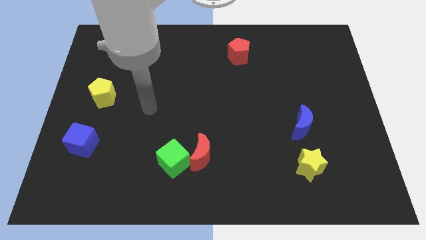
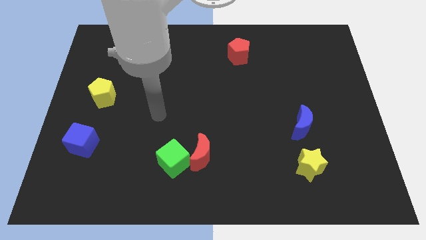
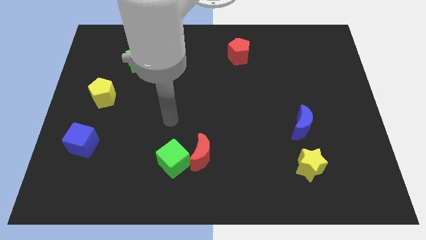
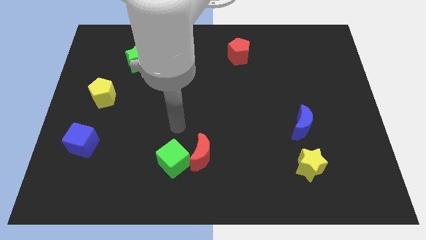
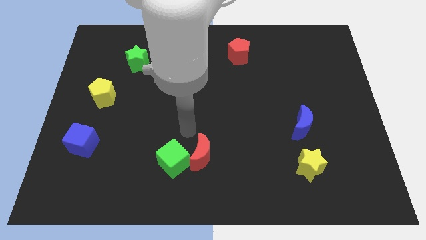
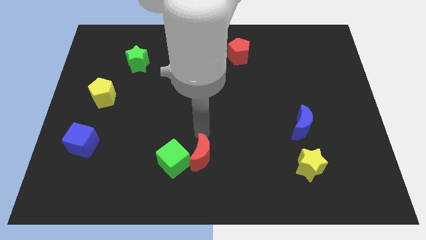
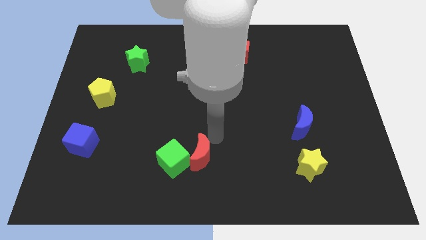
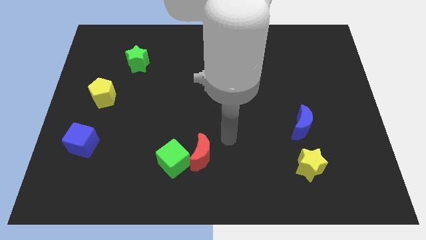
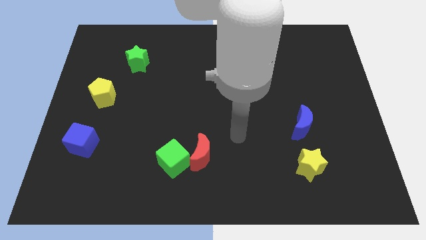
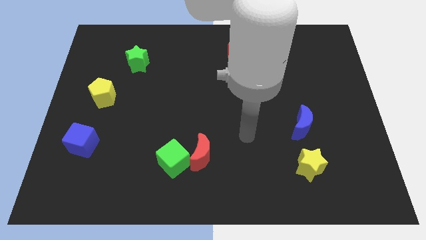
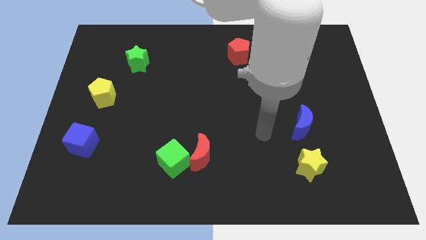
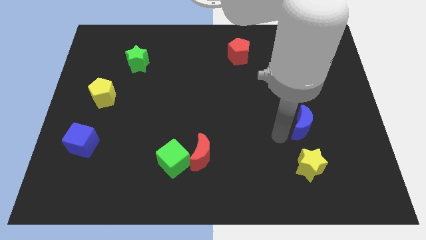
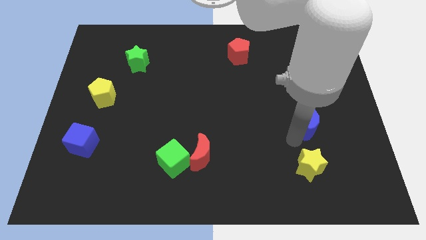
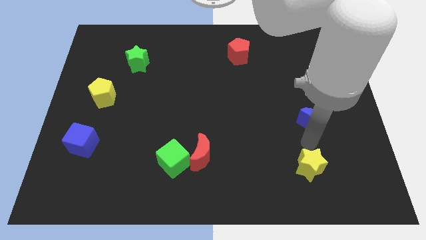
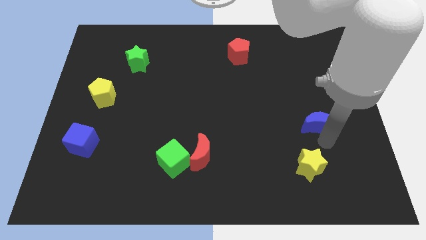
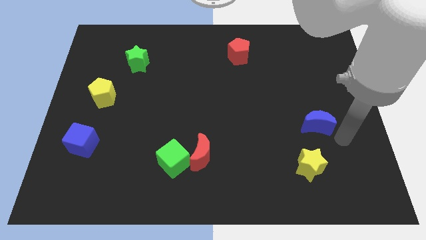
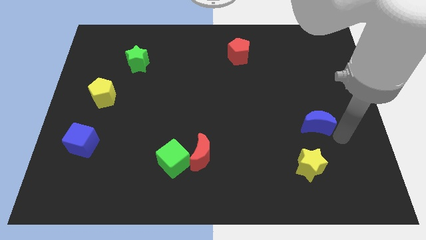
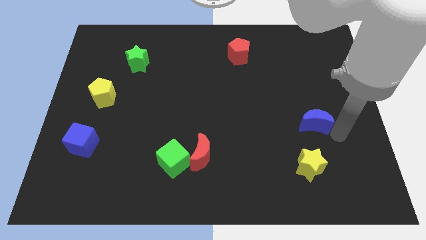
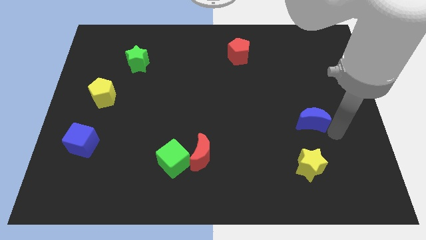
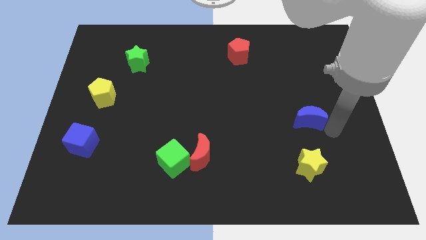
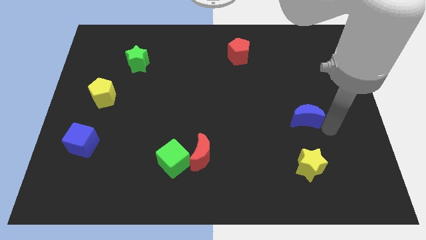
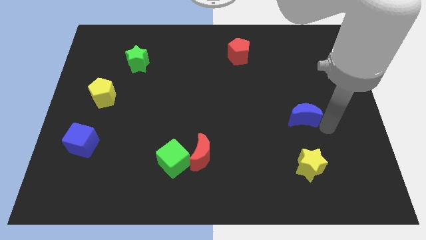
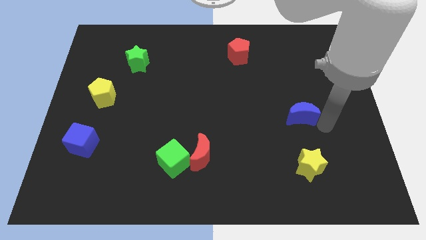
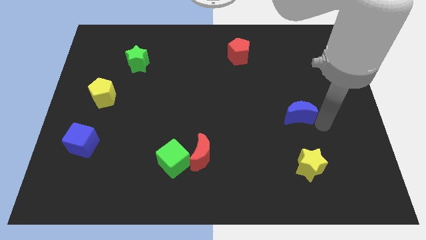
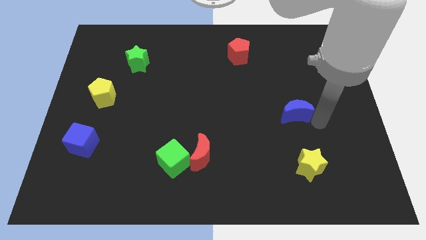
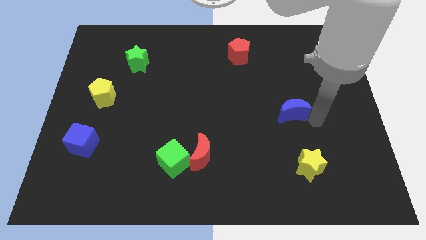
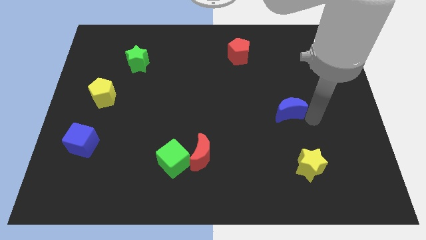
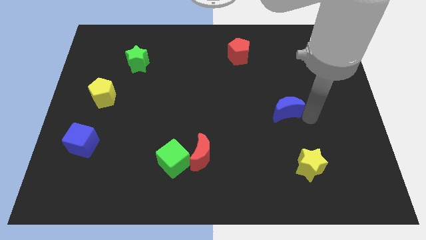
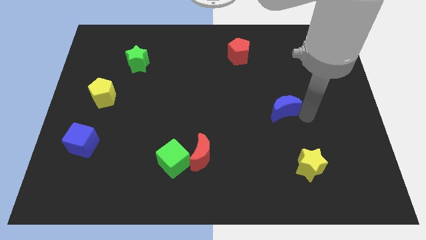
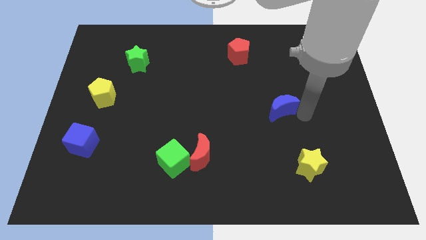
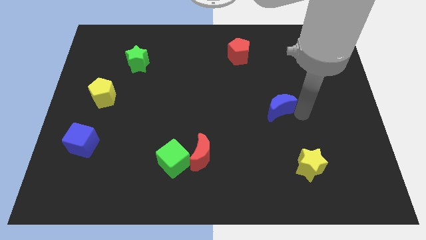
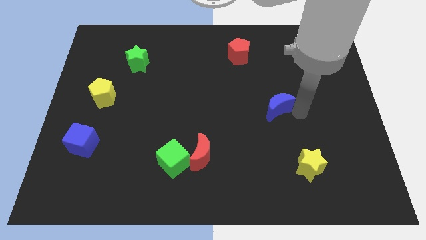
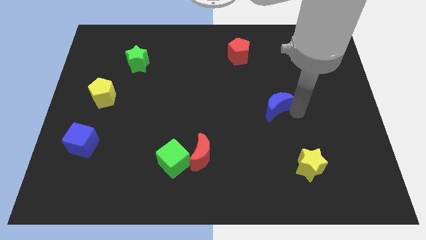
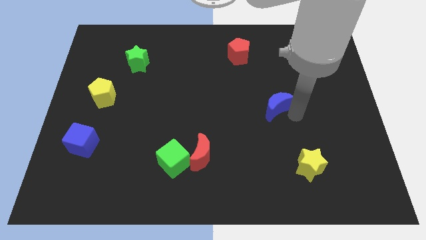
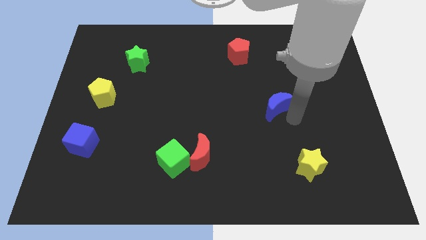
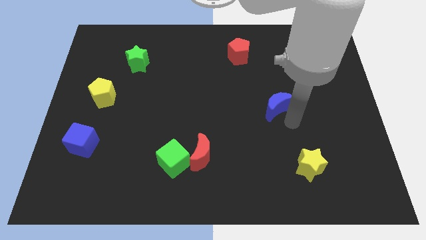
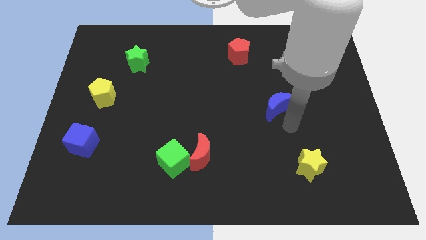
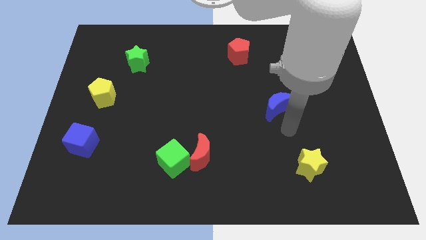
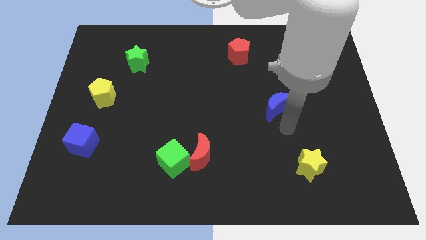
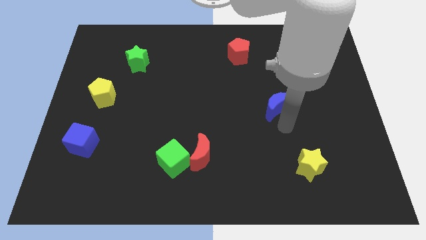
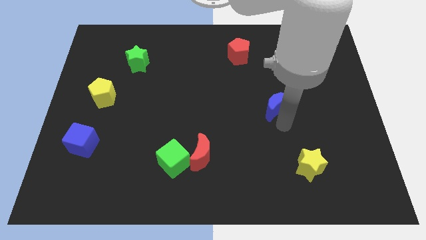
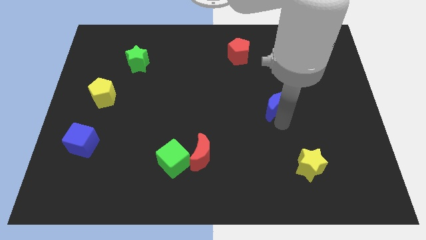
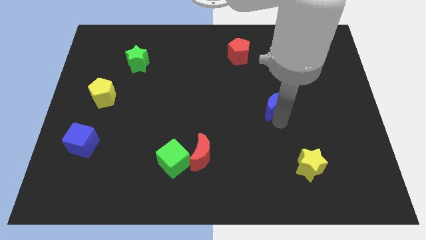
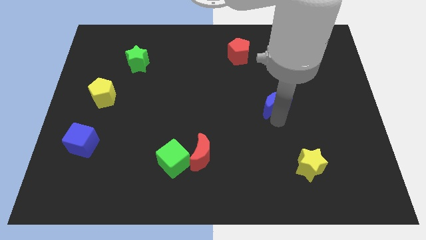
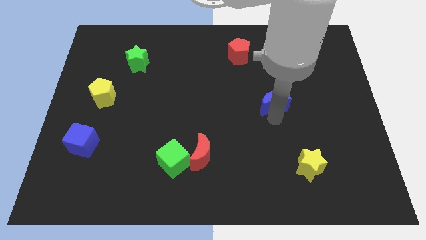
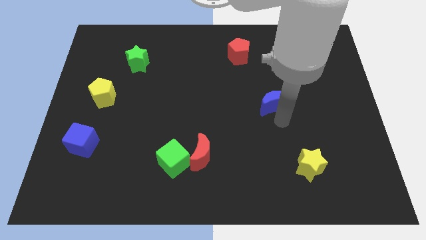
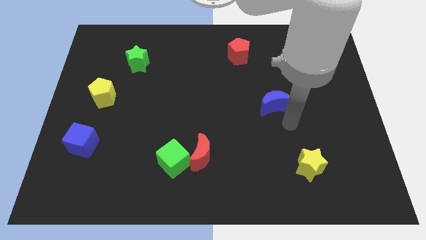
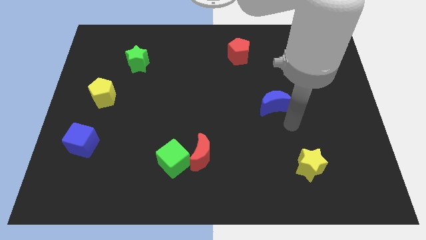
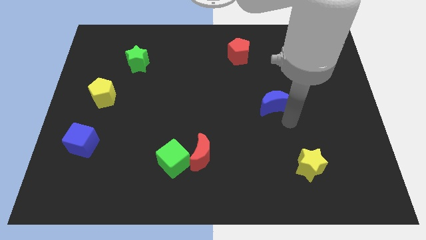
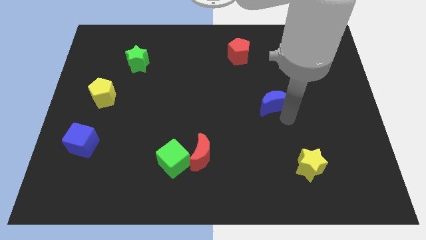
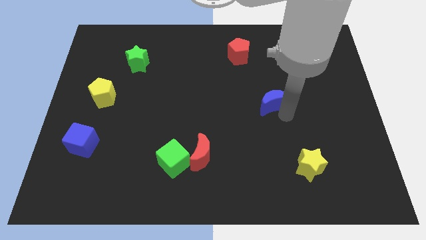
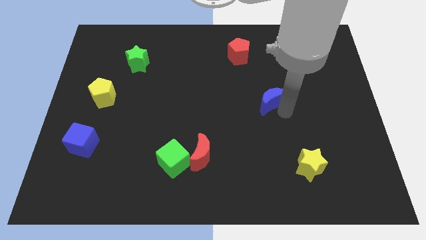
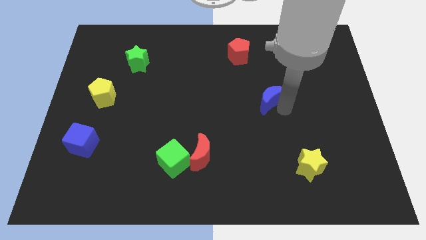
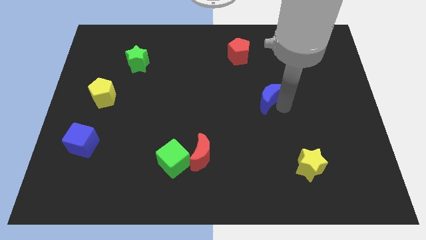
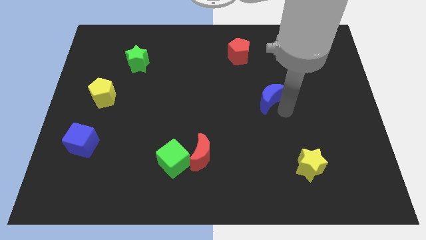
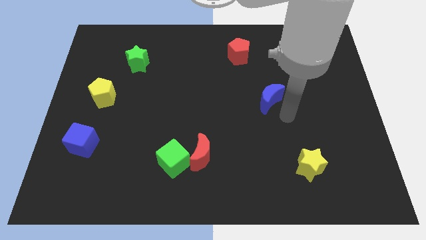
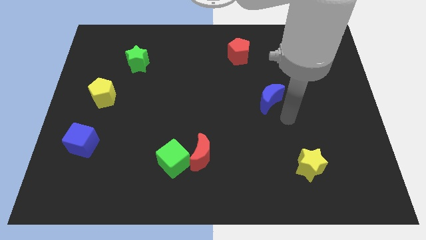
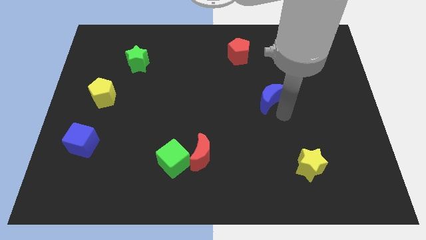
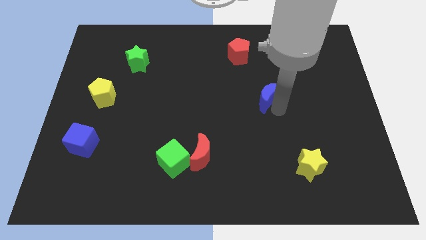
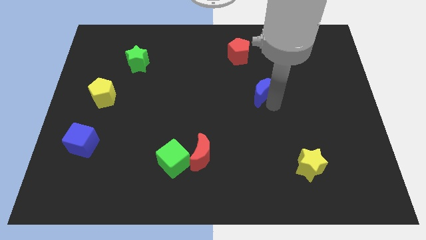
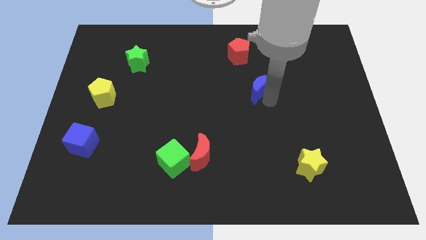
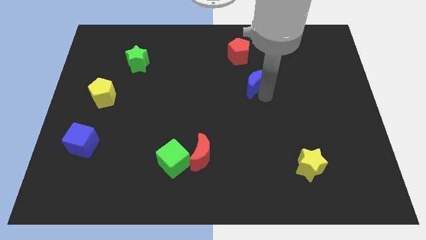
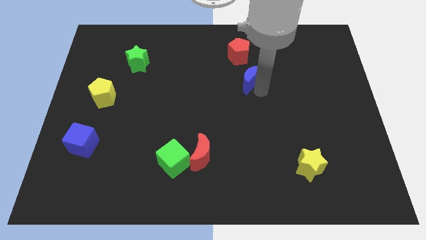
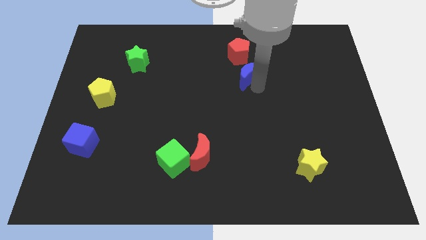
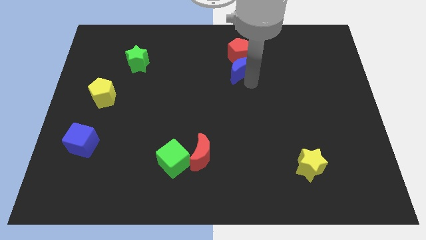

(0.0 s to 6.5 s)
push the blue moon next to the red pentagon
